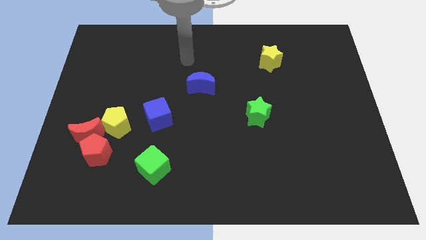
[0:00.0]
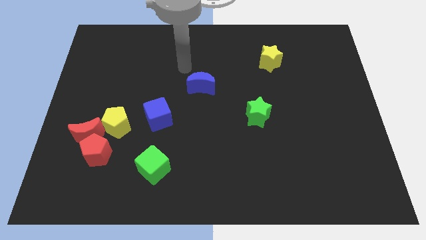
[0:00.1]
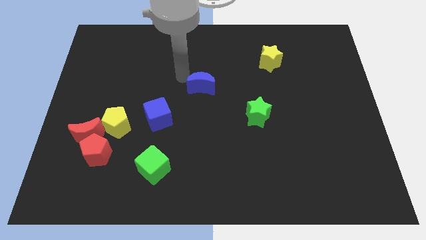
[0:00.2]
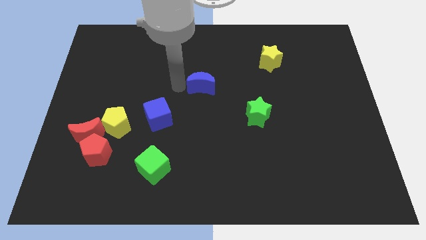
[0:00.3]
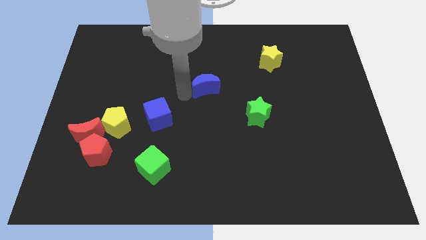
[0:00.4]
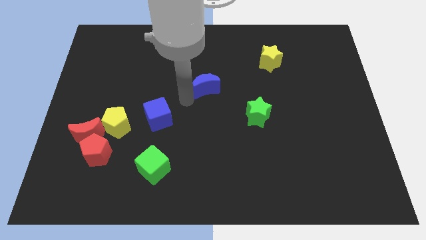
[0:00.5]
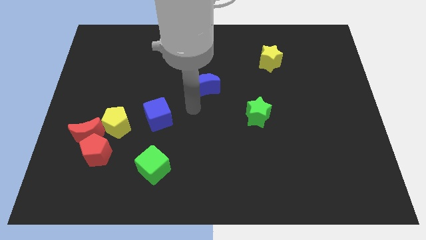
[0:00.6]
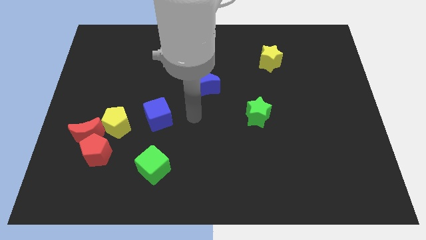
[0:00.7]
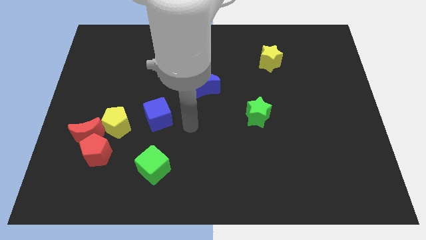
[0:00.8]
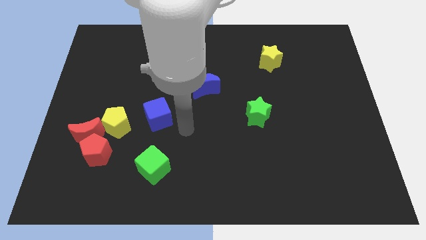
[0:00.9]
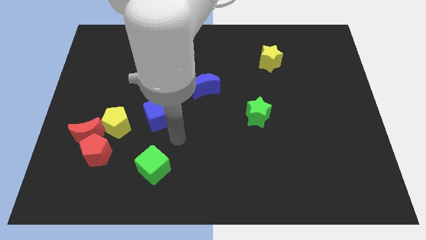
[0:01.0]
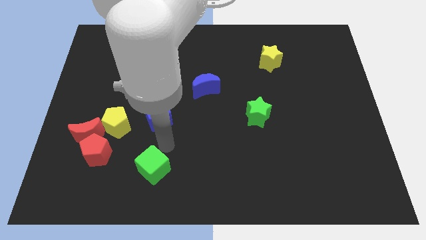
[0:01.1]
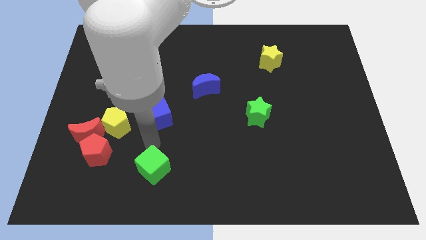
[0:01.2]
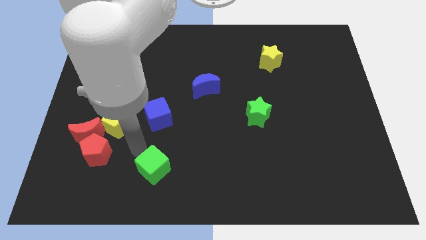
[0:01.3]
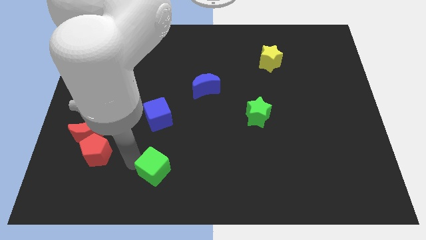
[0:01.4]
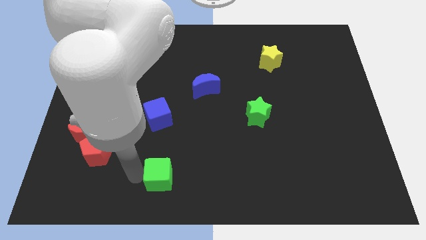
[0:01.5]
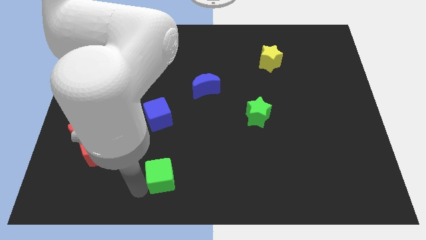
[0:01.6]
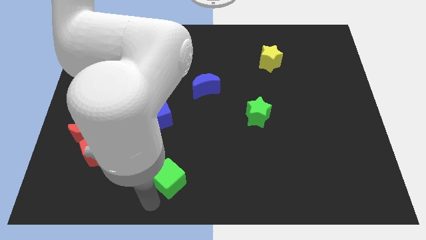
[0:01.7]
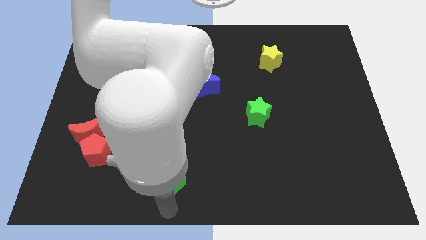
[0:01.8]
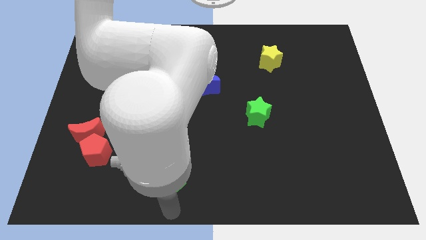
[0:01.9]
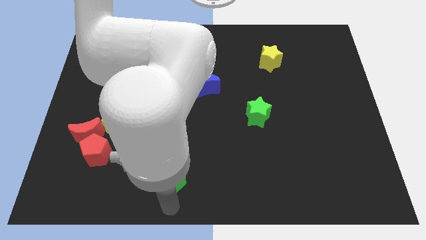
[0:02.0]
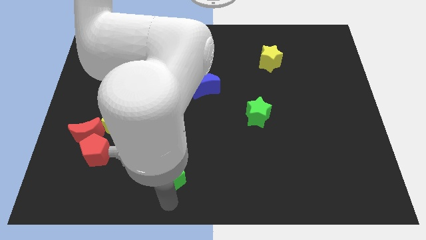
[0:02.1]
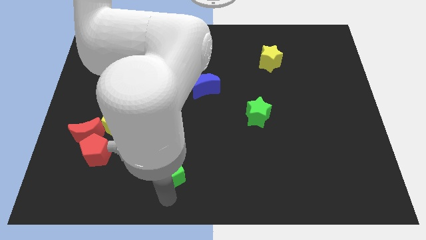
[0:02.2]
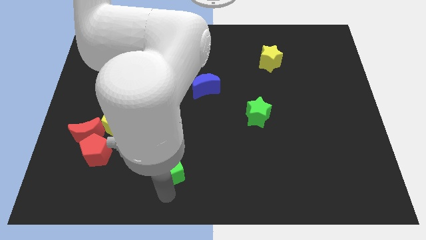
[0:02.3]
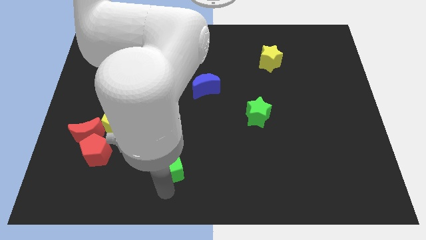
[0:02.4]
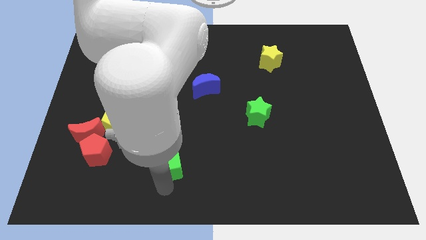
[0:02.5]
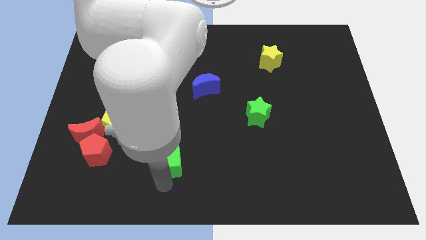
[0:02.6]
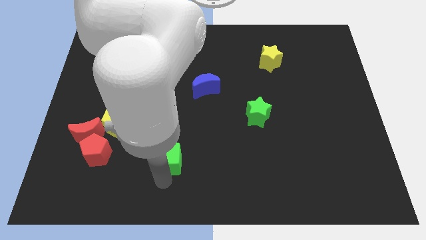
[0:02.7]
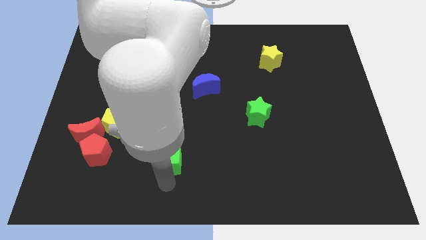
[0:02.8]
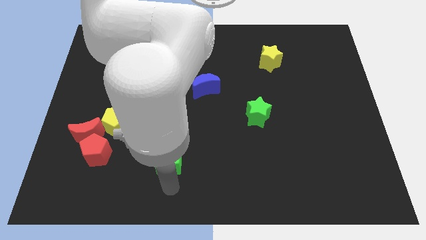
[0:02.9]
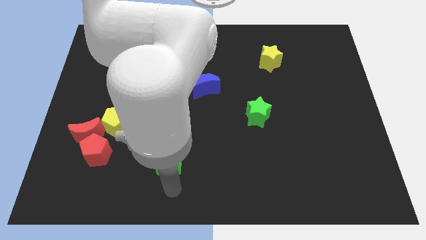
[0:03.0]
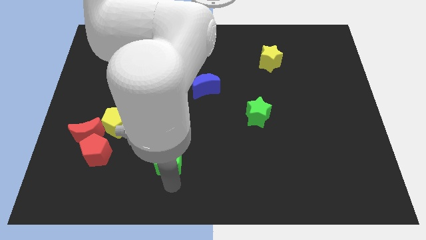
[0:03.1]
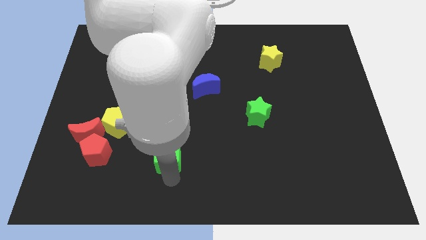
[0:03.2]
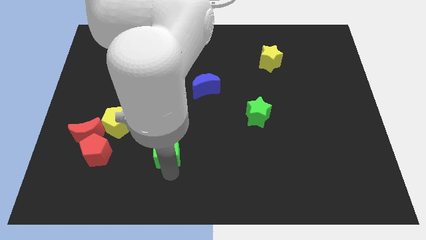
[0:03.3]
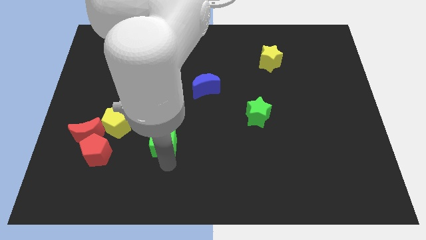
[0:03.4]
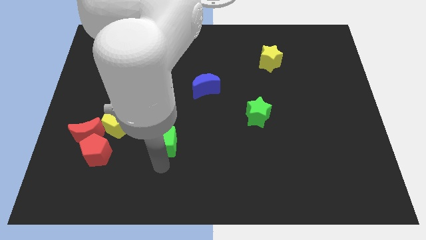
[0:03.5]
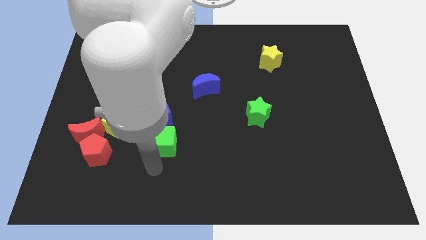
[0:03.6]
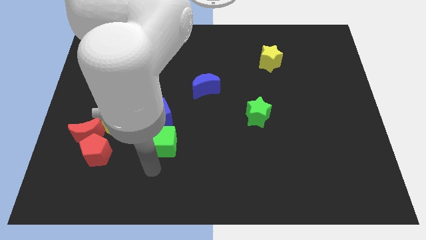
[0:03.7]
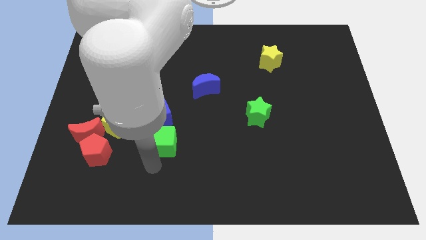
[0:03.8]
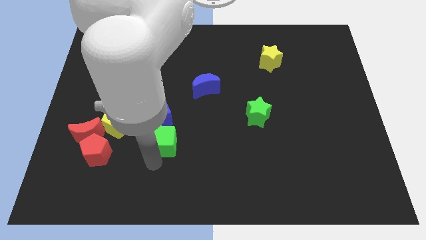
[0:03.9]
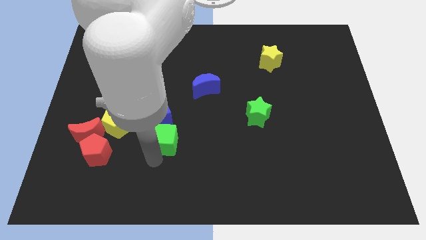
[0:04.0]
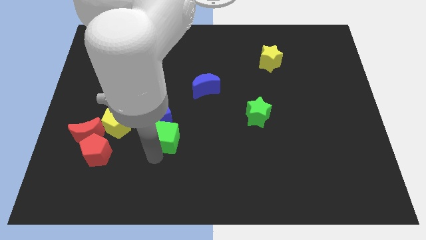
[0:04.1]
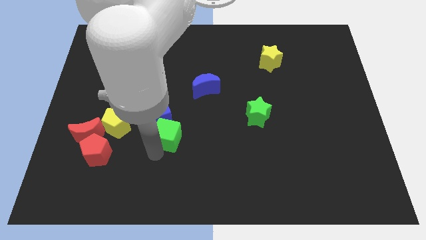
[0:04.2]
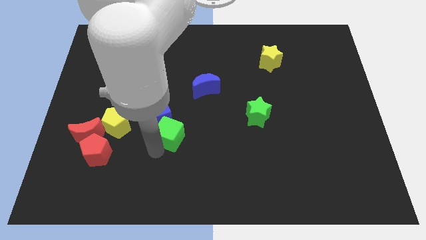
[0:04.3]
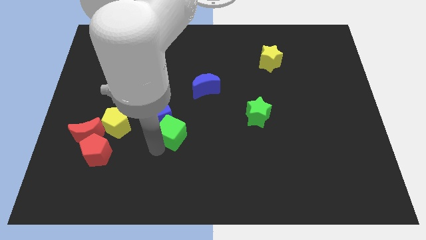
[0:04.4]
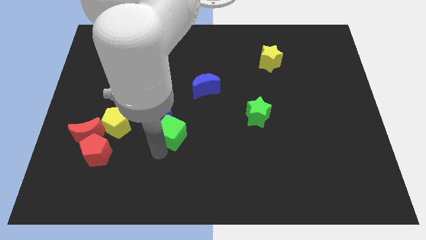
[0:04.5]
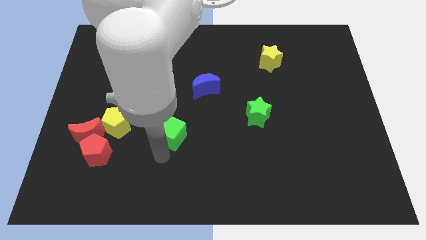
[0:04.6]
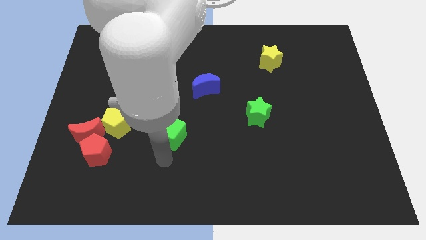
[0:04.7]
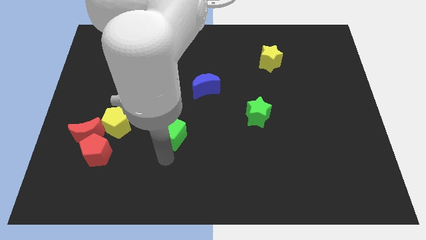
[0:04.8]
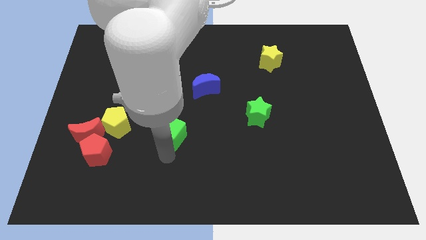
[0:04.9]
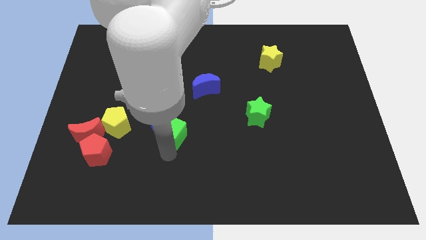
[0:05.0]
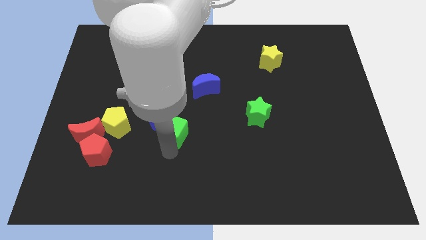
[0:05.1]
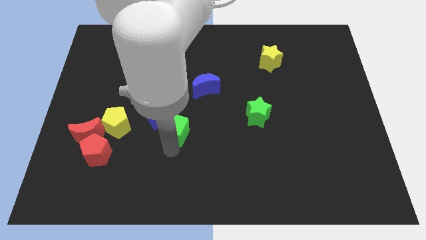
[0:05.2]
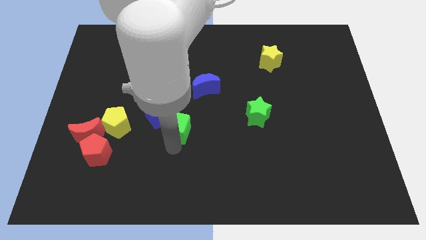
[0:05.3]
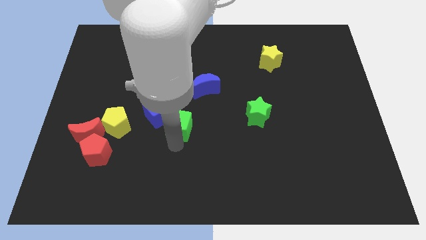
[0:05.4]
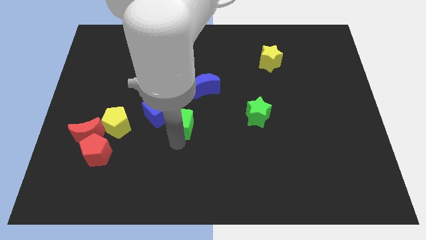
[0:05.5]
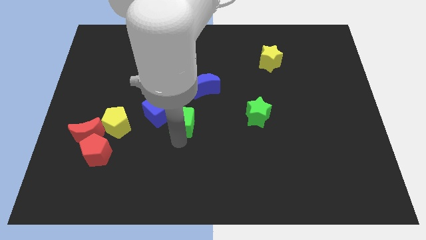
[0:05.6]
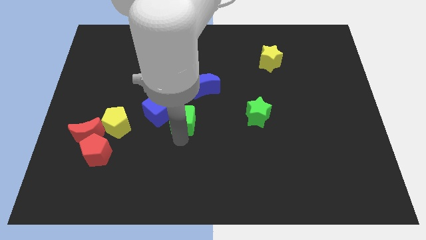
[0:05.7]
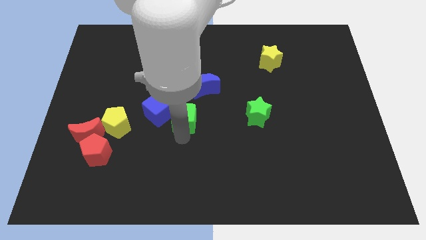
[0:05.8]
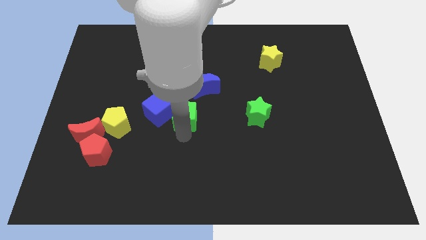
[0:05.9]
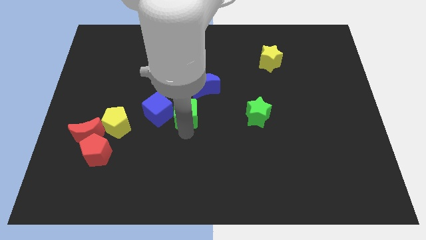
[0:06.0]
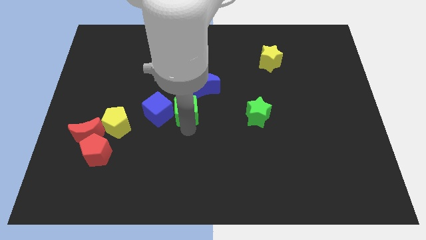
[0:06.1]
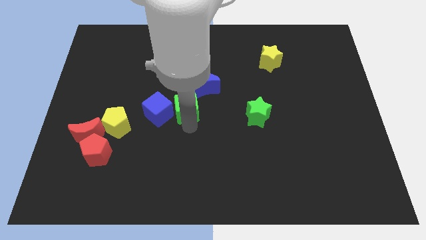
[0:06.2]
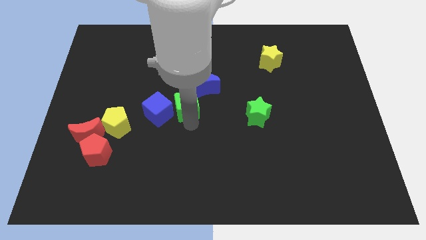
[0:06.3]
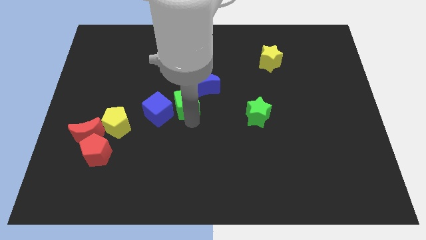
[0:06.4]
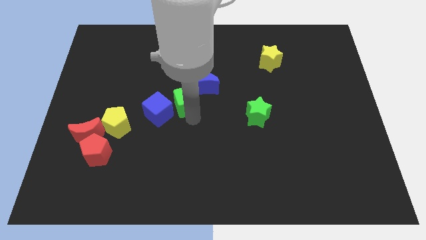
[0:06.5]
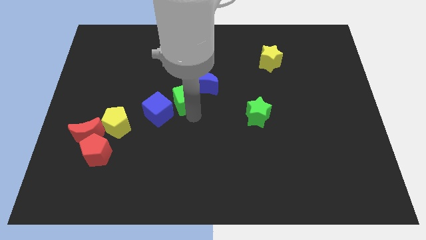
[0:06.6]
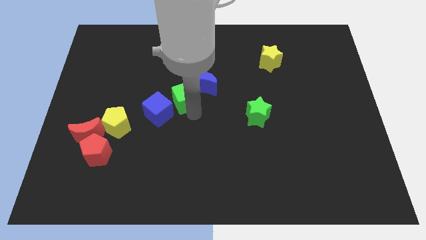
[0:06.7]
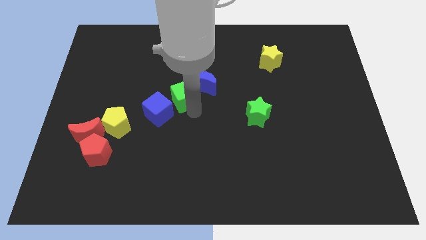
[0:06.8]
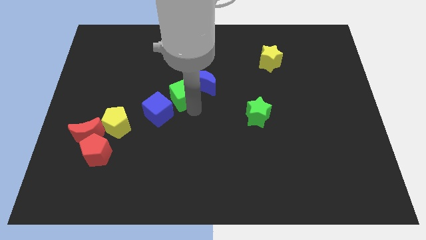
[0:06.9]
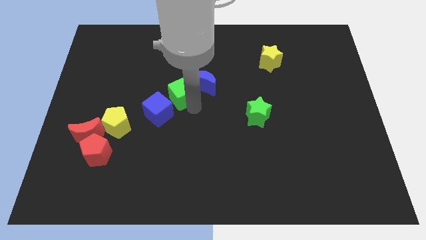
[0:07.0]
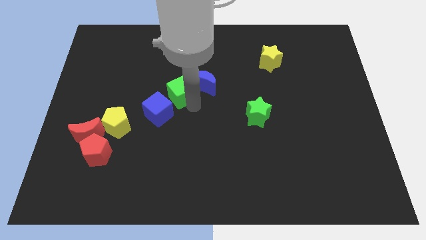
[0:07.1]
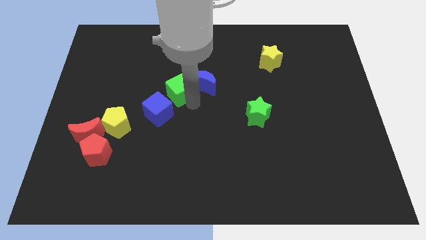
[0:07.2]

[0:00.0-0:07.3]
slide the green cube up

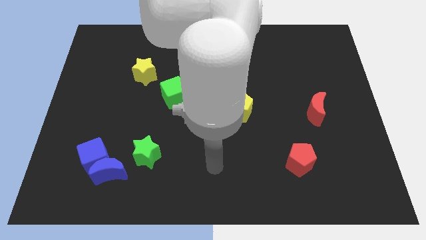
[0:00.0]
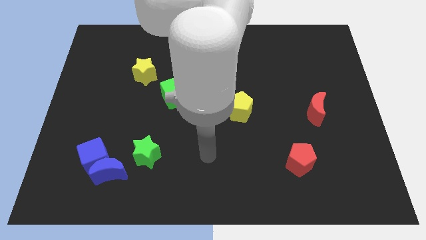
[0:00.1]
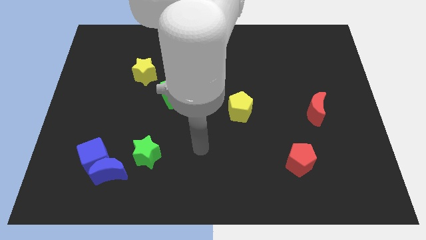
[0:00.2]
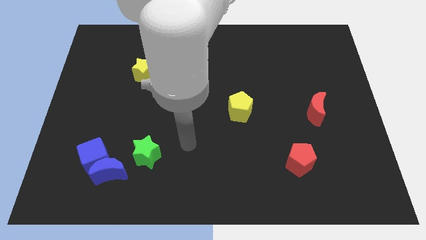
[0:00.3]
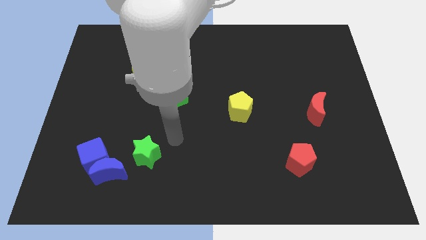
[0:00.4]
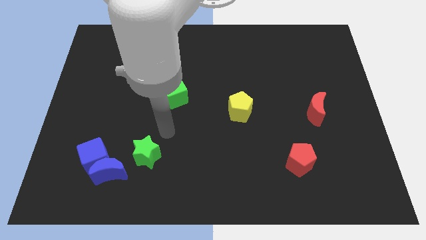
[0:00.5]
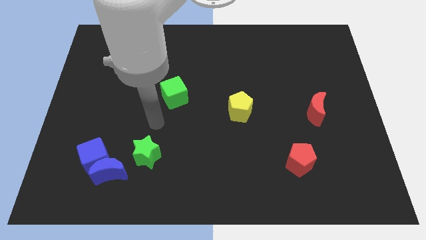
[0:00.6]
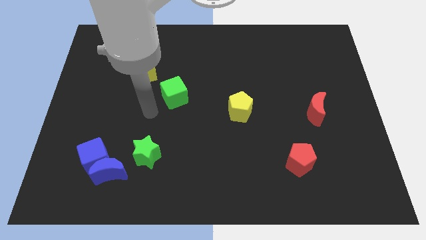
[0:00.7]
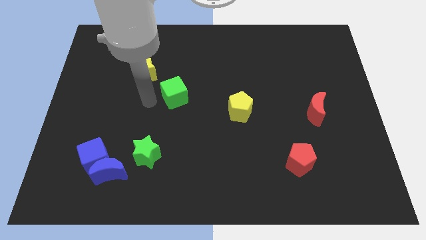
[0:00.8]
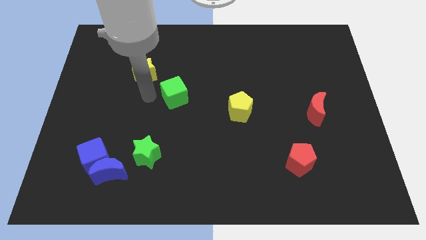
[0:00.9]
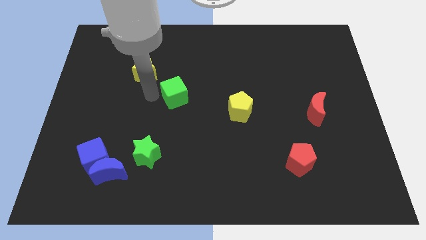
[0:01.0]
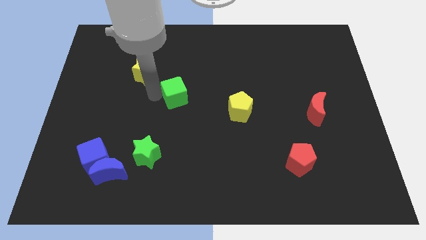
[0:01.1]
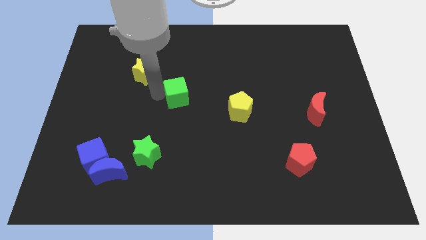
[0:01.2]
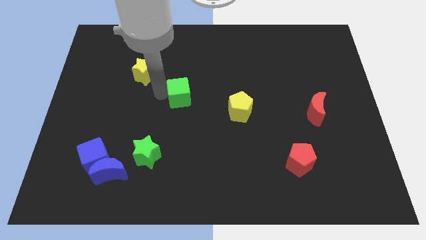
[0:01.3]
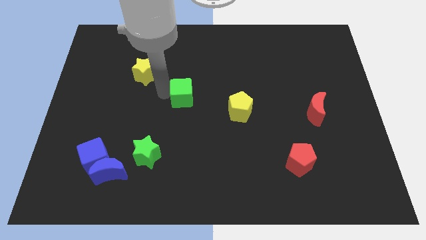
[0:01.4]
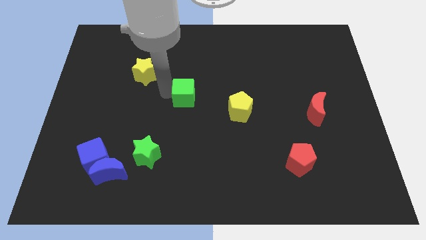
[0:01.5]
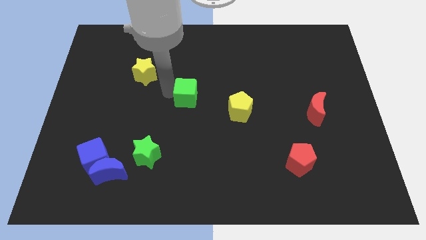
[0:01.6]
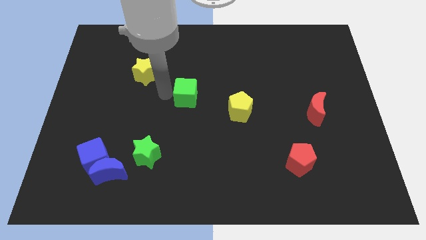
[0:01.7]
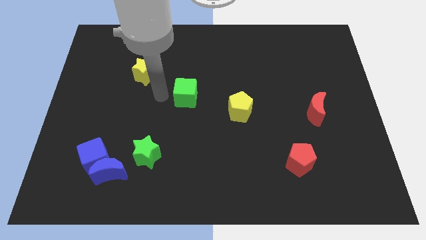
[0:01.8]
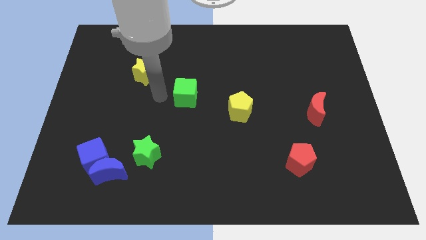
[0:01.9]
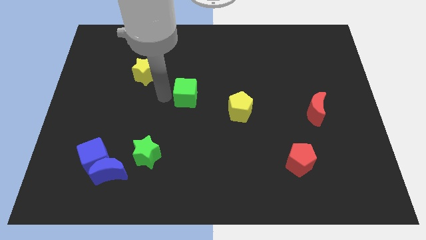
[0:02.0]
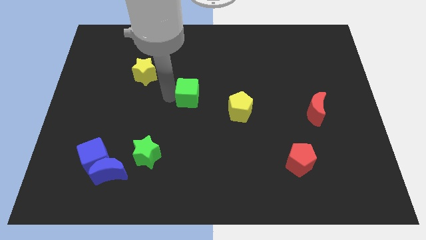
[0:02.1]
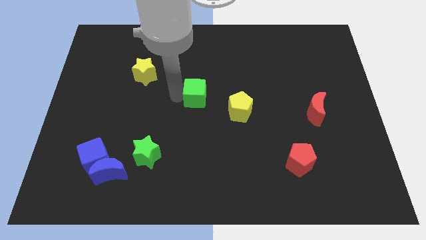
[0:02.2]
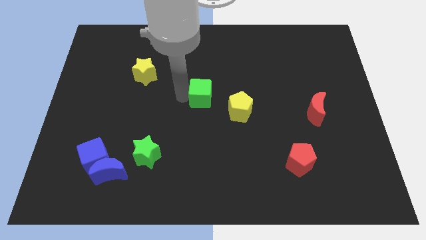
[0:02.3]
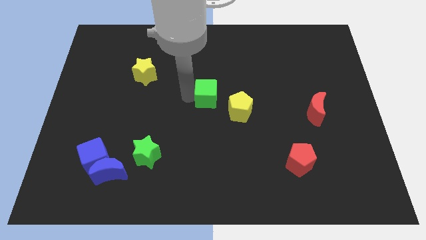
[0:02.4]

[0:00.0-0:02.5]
slightly push the green cube to the right
